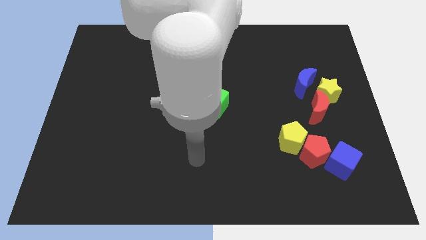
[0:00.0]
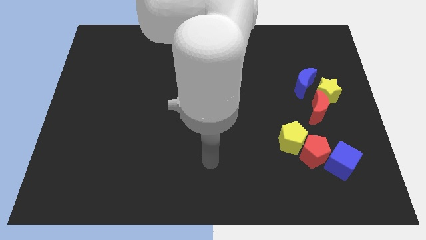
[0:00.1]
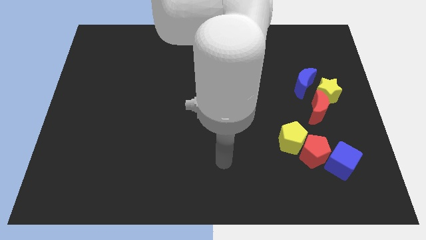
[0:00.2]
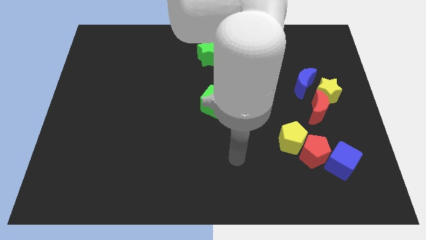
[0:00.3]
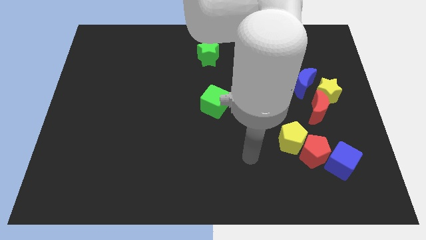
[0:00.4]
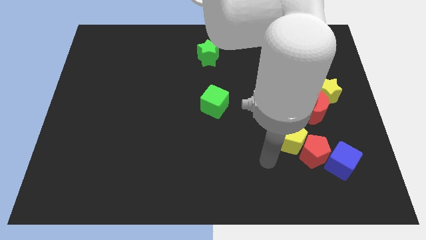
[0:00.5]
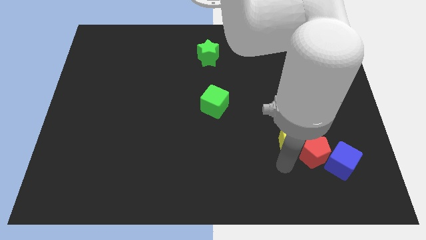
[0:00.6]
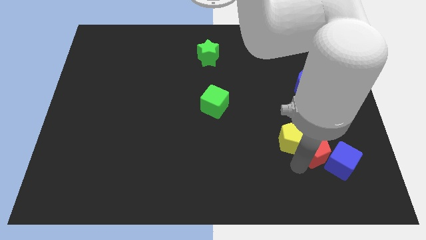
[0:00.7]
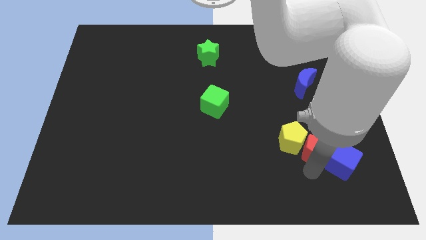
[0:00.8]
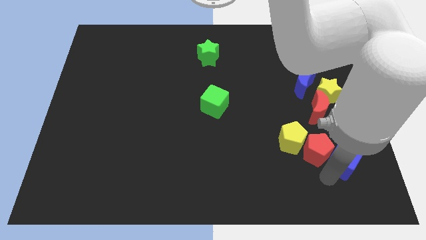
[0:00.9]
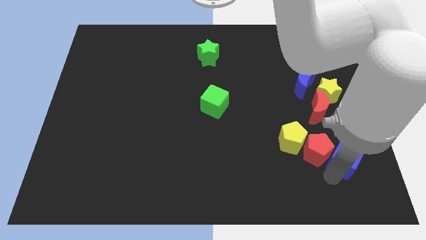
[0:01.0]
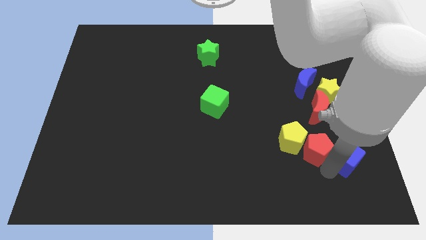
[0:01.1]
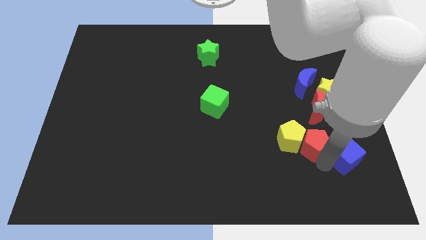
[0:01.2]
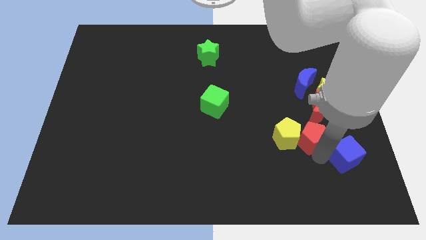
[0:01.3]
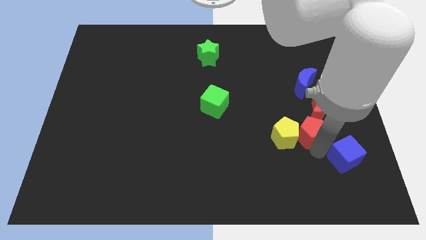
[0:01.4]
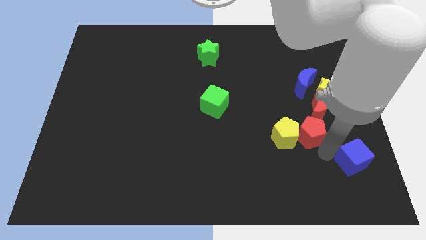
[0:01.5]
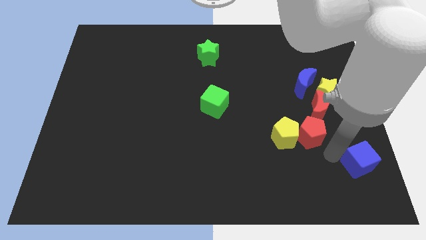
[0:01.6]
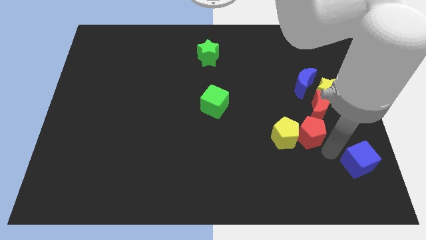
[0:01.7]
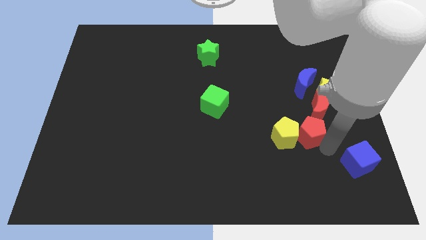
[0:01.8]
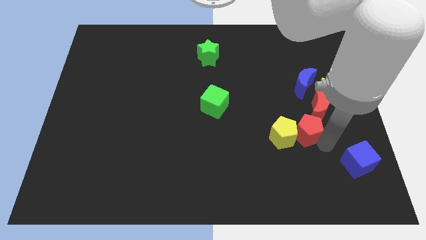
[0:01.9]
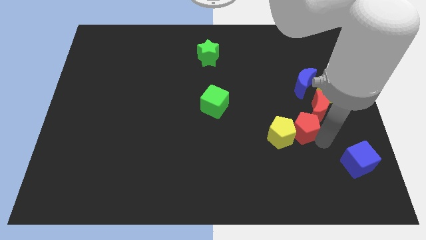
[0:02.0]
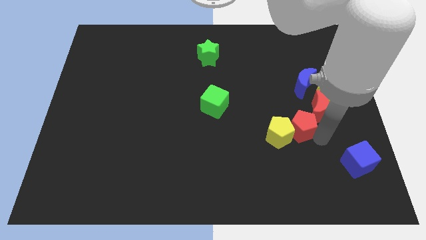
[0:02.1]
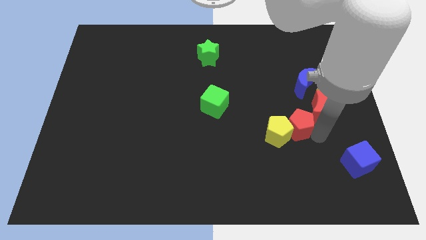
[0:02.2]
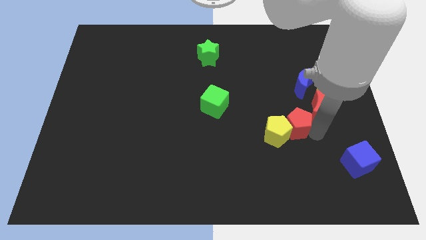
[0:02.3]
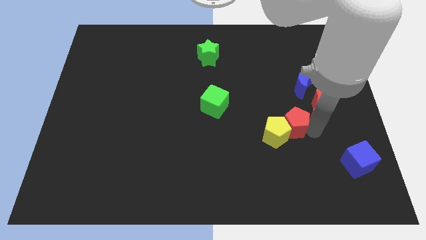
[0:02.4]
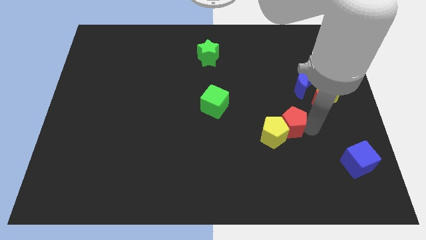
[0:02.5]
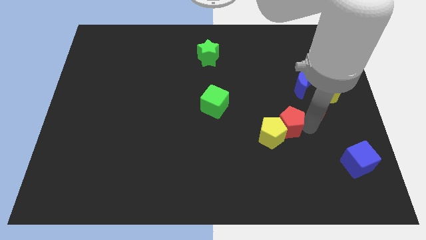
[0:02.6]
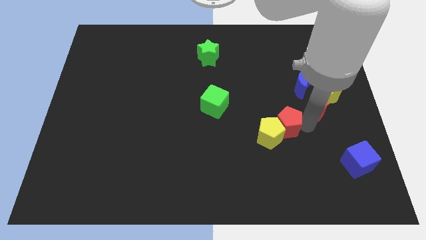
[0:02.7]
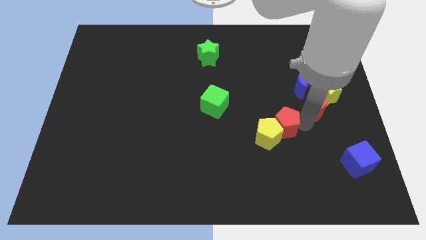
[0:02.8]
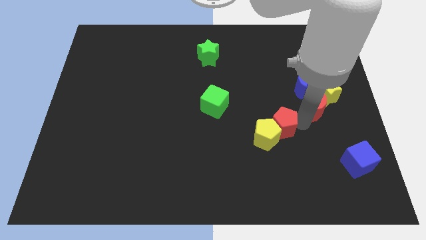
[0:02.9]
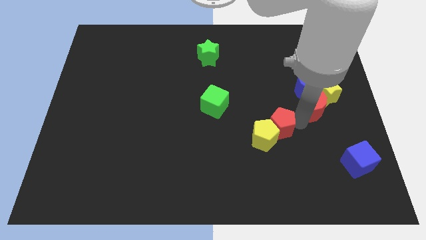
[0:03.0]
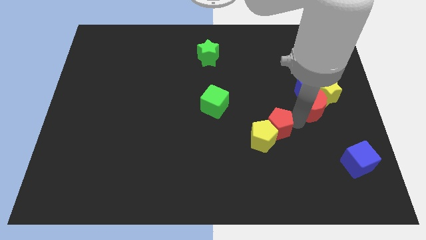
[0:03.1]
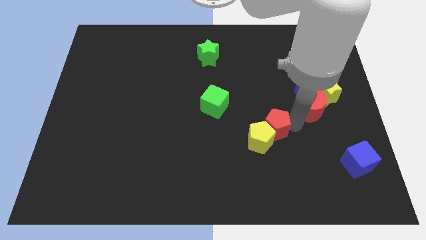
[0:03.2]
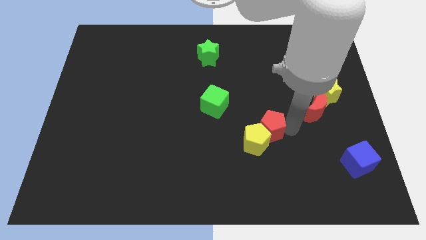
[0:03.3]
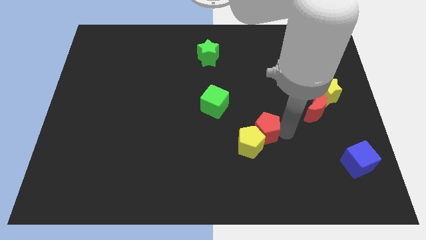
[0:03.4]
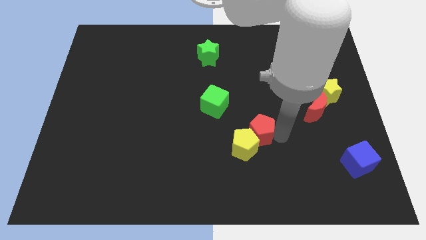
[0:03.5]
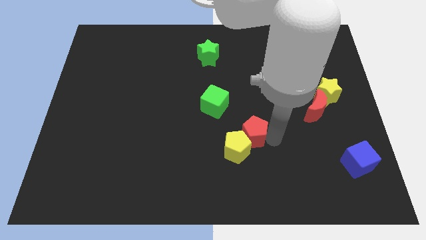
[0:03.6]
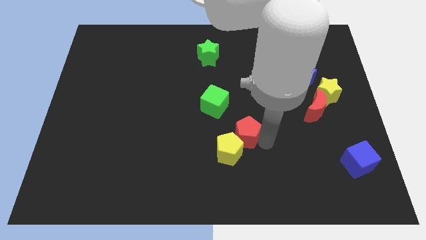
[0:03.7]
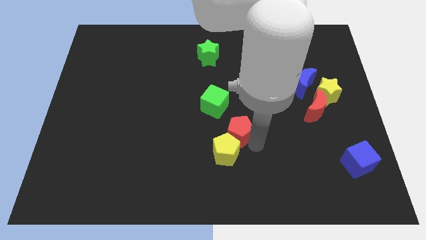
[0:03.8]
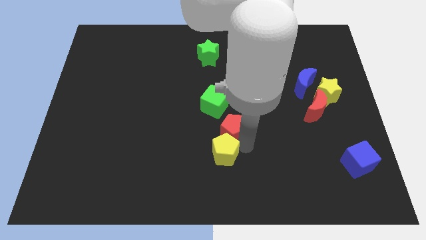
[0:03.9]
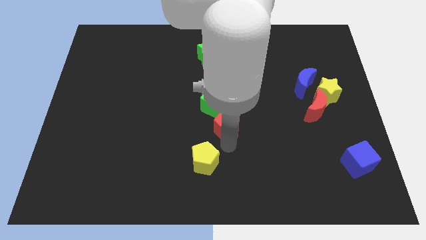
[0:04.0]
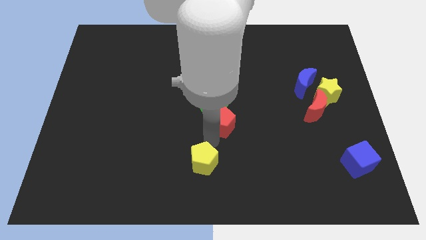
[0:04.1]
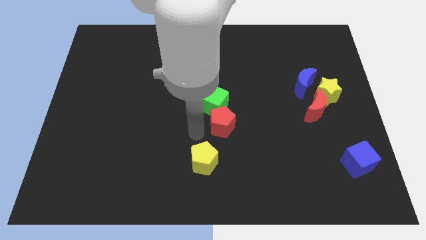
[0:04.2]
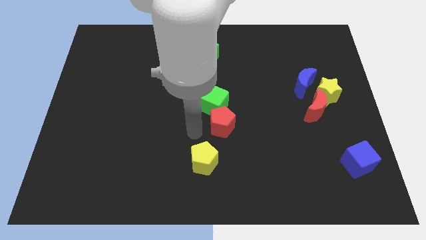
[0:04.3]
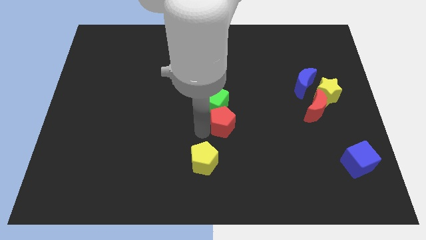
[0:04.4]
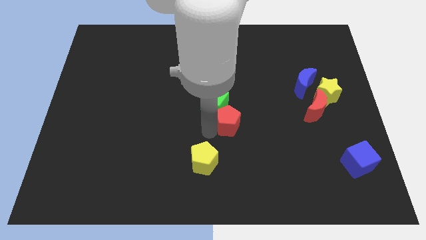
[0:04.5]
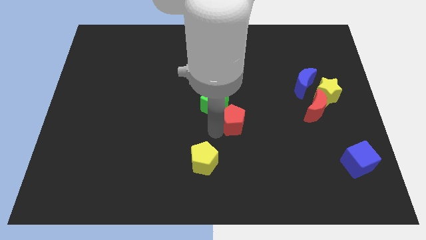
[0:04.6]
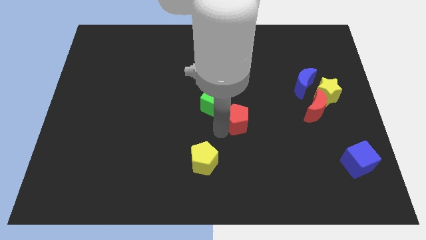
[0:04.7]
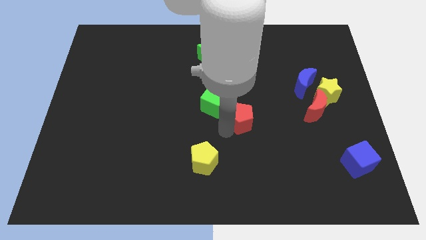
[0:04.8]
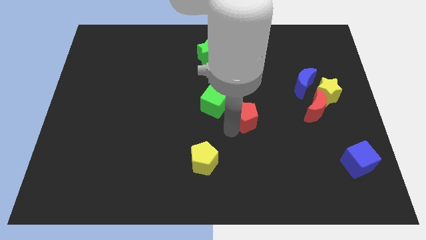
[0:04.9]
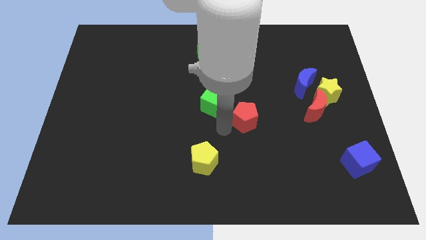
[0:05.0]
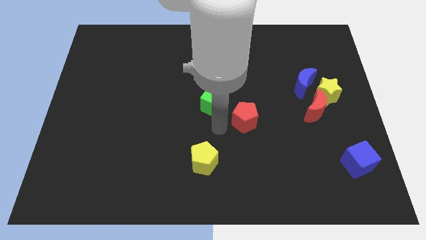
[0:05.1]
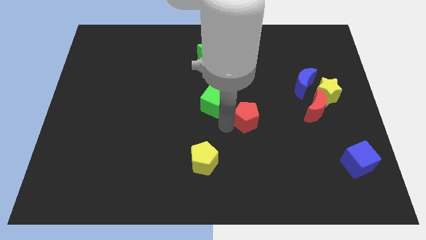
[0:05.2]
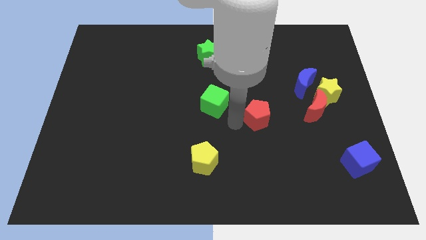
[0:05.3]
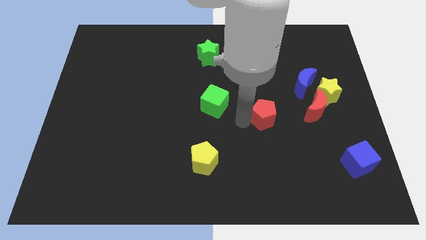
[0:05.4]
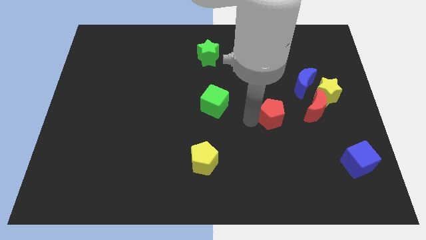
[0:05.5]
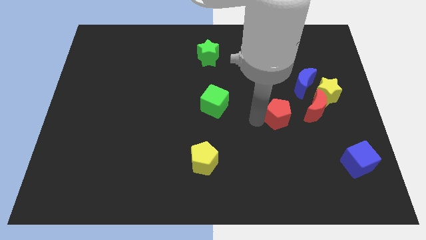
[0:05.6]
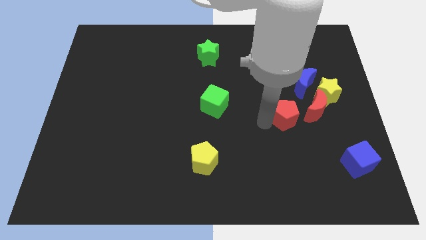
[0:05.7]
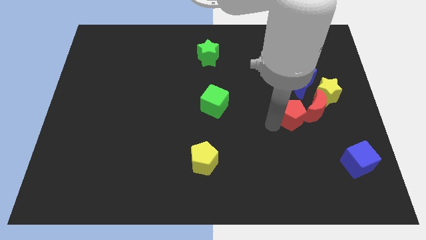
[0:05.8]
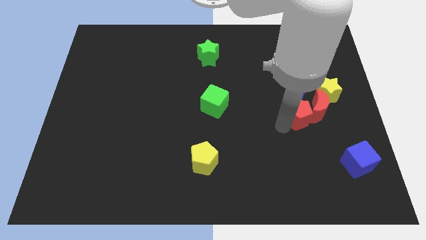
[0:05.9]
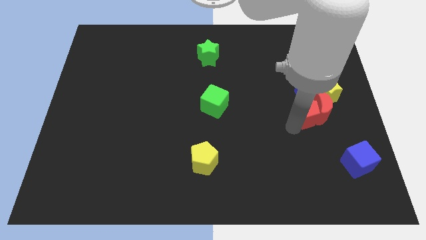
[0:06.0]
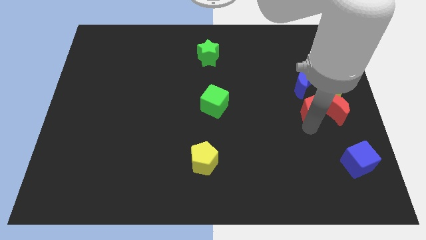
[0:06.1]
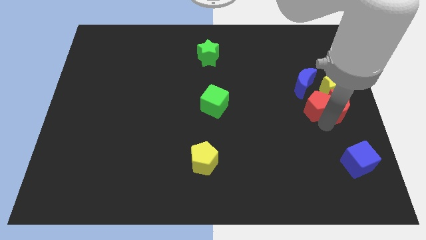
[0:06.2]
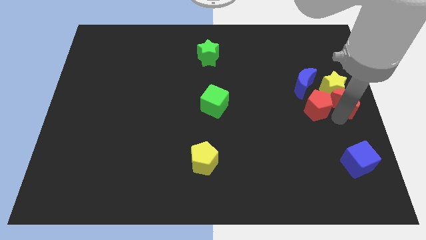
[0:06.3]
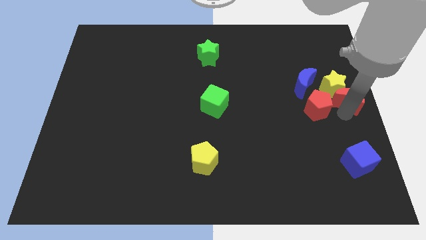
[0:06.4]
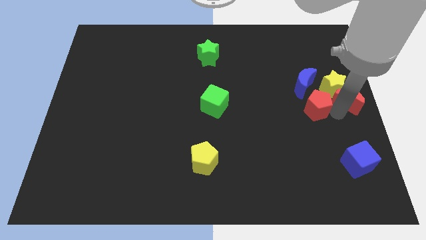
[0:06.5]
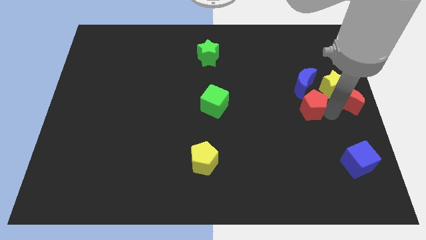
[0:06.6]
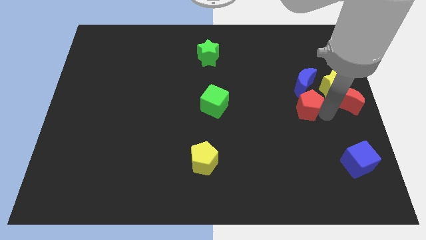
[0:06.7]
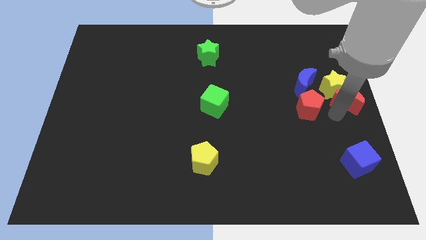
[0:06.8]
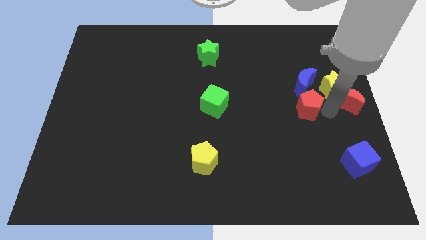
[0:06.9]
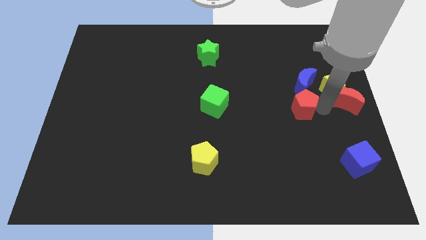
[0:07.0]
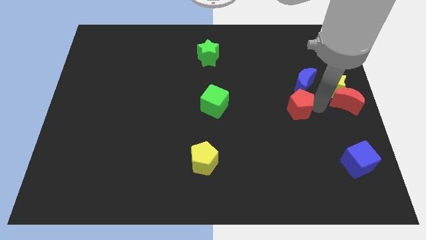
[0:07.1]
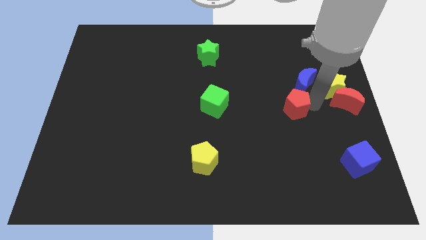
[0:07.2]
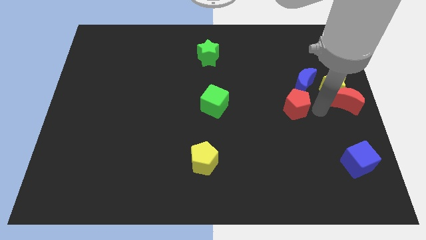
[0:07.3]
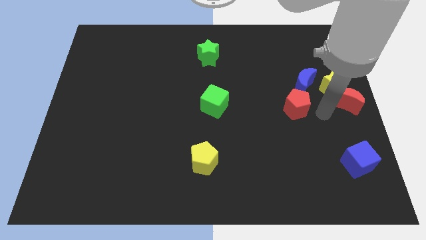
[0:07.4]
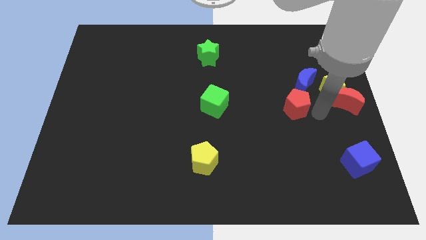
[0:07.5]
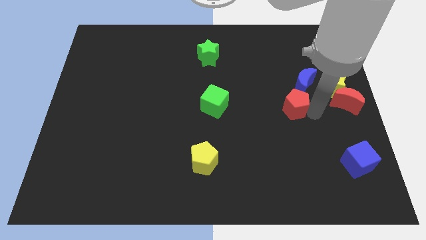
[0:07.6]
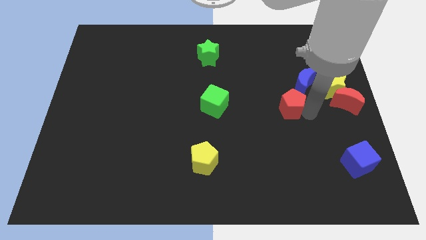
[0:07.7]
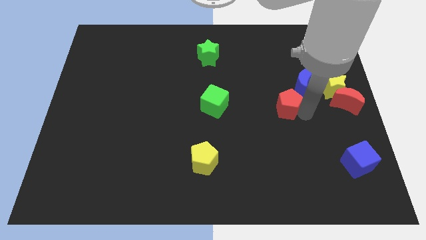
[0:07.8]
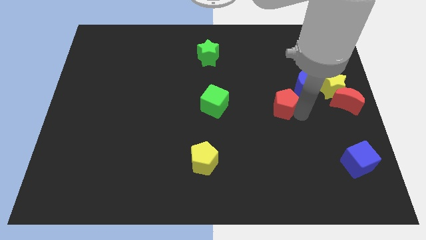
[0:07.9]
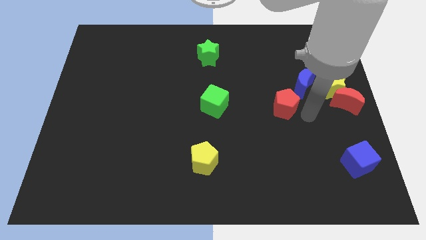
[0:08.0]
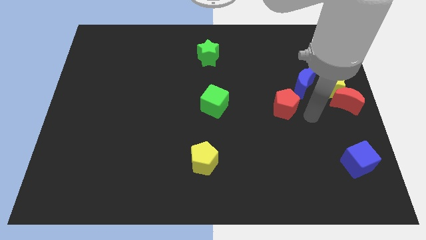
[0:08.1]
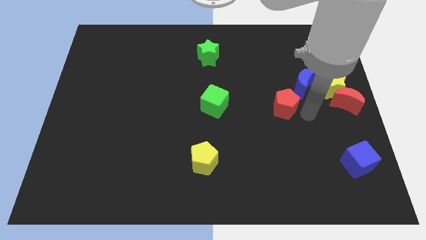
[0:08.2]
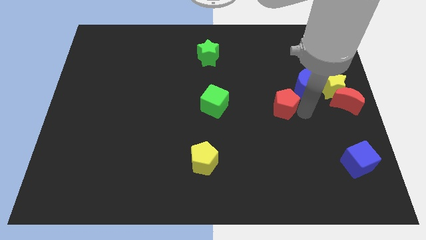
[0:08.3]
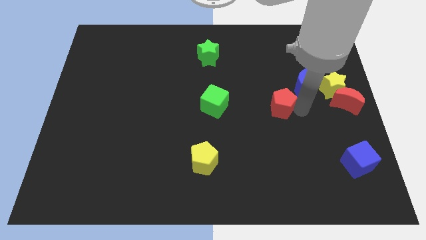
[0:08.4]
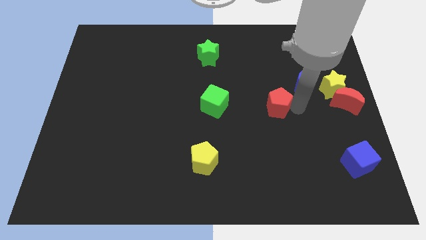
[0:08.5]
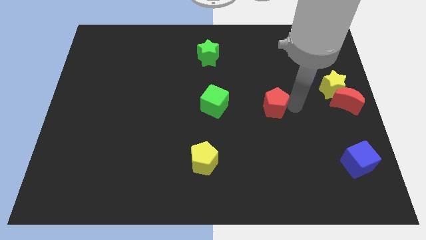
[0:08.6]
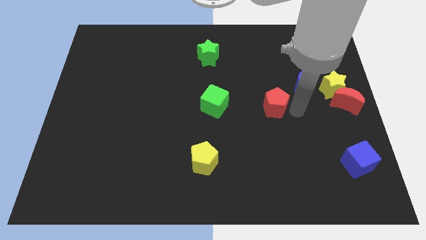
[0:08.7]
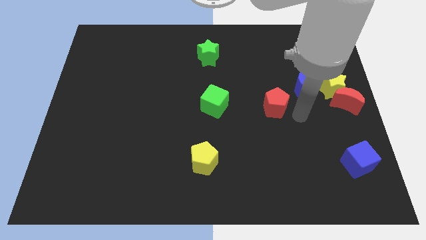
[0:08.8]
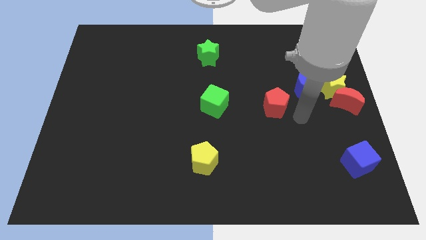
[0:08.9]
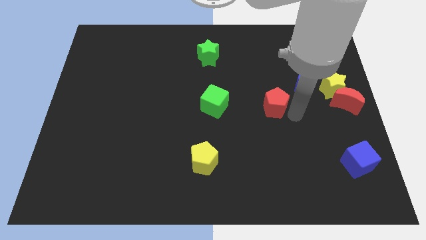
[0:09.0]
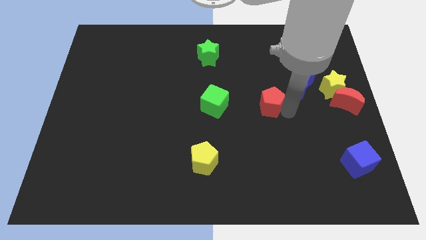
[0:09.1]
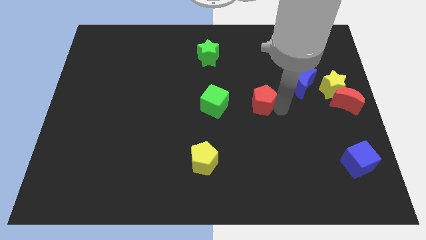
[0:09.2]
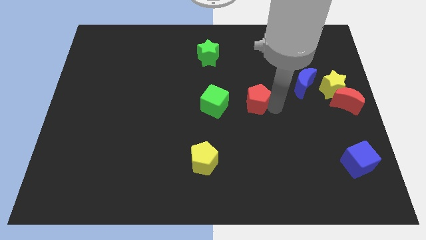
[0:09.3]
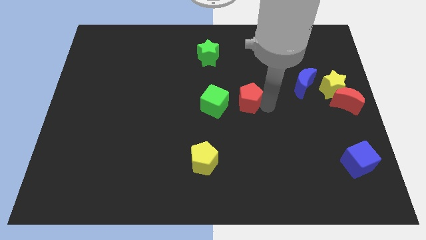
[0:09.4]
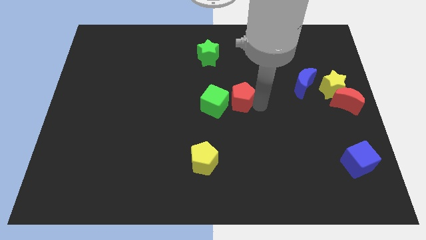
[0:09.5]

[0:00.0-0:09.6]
push the red pentagon to the top right side of the green cube
